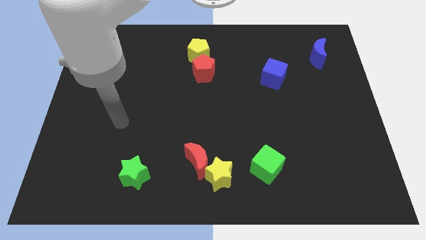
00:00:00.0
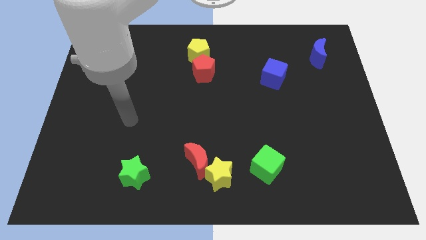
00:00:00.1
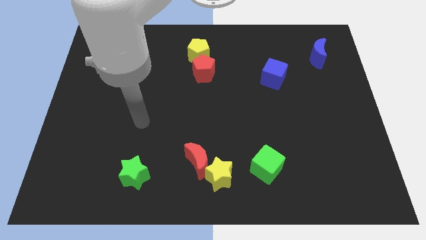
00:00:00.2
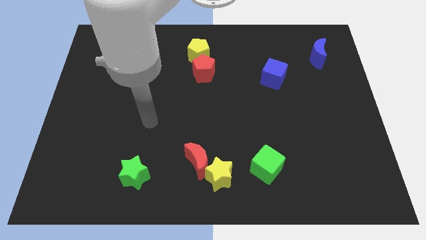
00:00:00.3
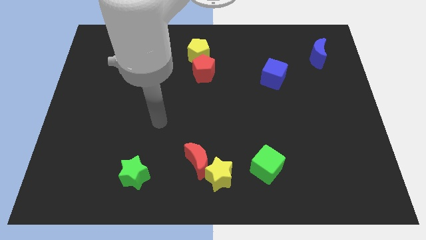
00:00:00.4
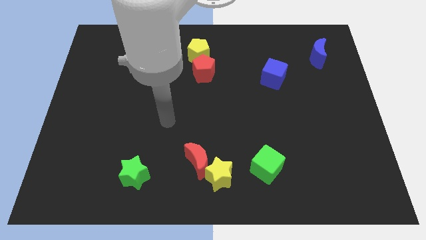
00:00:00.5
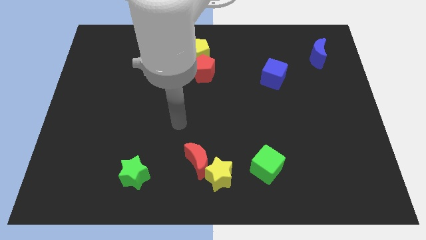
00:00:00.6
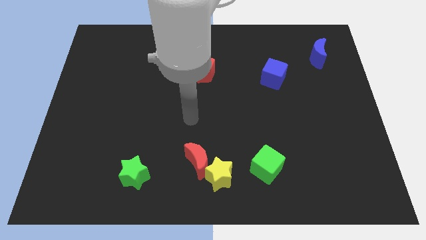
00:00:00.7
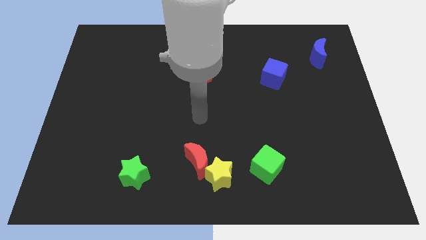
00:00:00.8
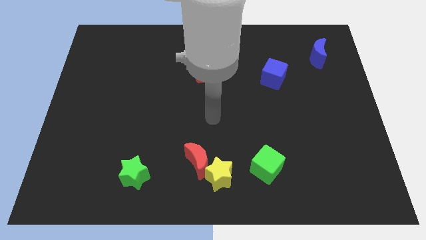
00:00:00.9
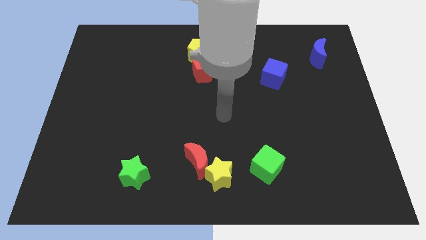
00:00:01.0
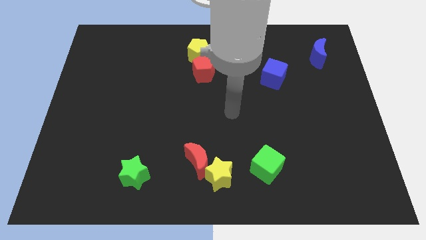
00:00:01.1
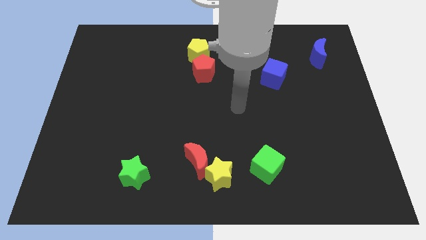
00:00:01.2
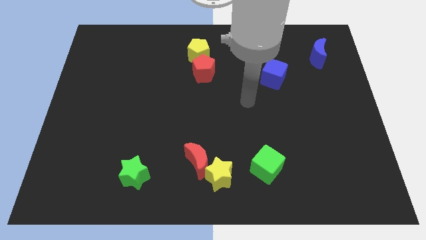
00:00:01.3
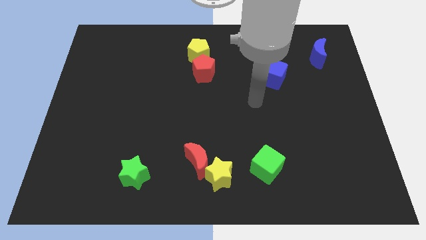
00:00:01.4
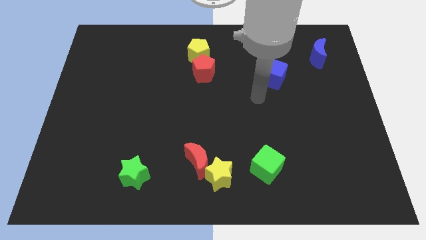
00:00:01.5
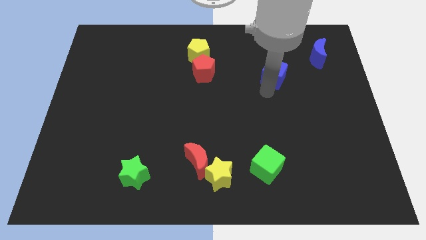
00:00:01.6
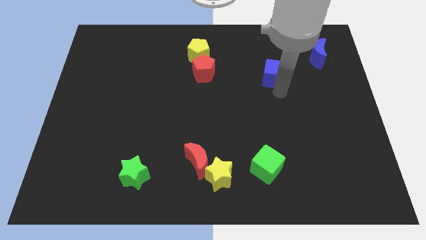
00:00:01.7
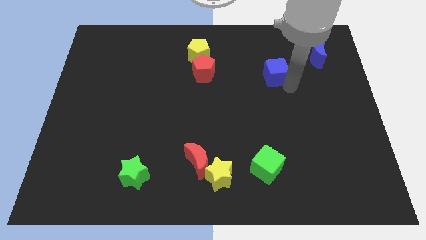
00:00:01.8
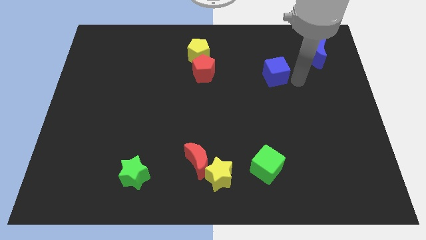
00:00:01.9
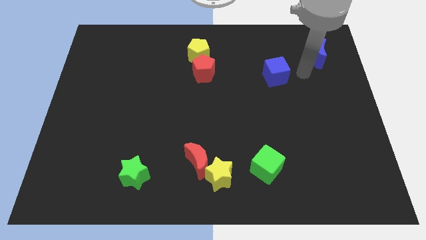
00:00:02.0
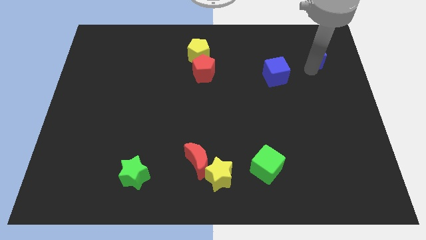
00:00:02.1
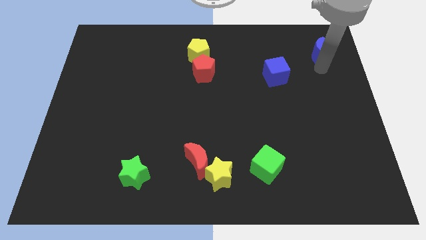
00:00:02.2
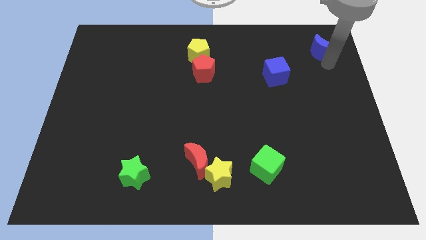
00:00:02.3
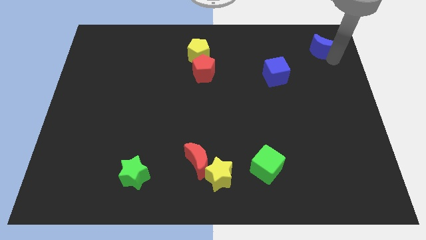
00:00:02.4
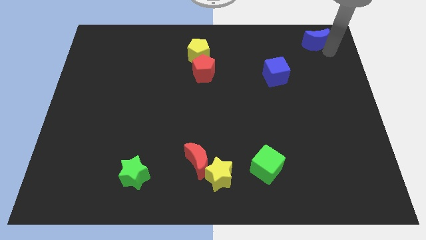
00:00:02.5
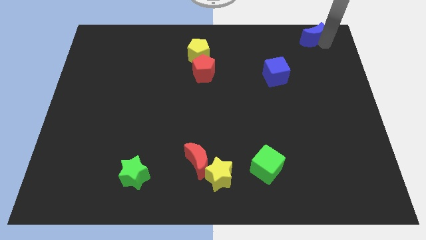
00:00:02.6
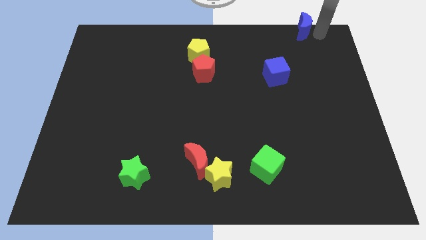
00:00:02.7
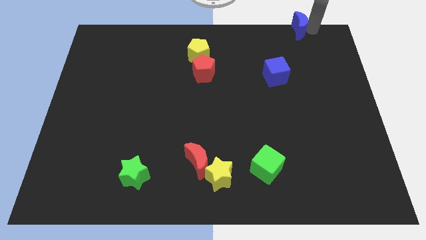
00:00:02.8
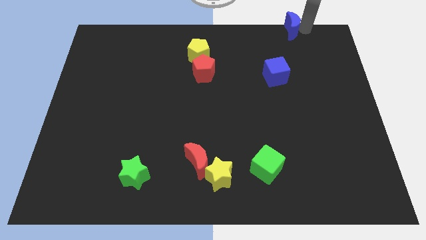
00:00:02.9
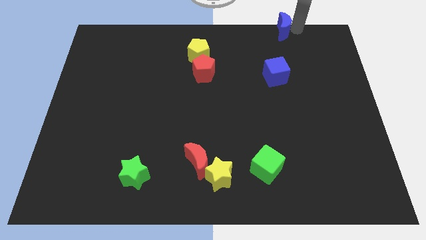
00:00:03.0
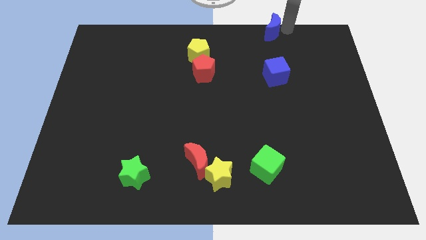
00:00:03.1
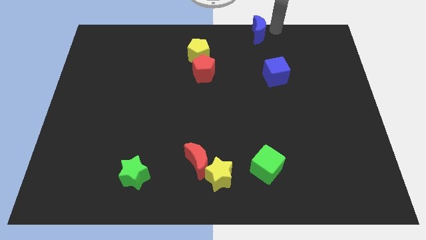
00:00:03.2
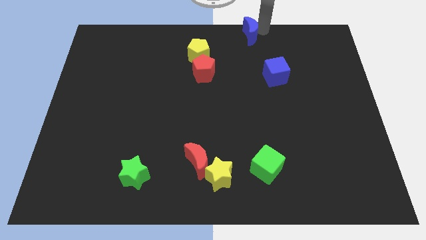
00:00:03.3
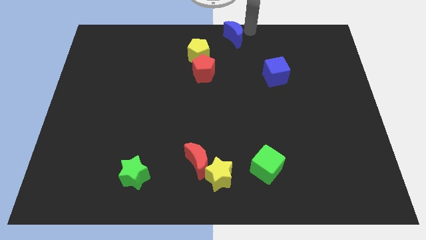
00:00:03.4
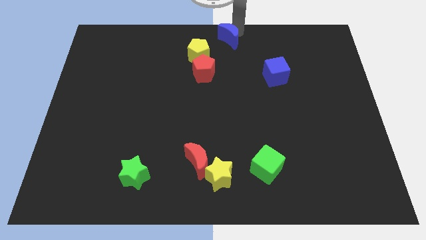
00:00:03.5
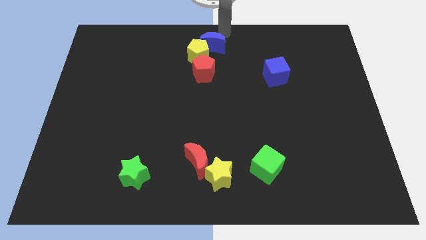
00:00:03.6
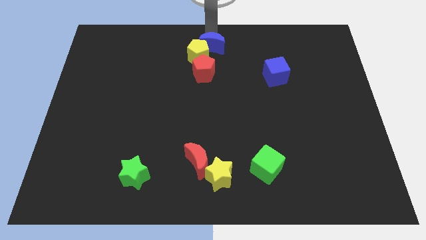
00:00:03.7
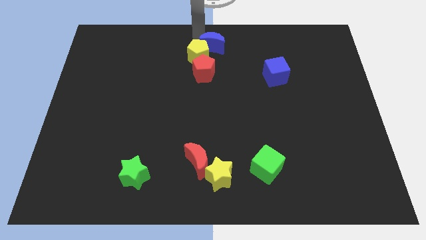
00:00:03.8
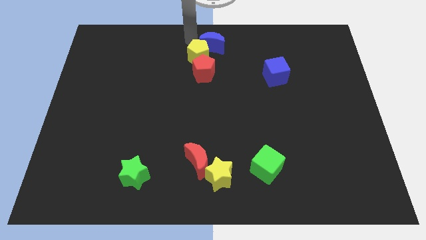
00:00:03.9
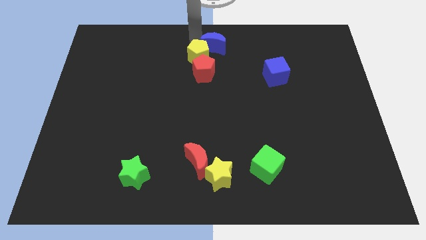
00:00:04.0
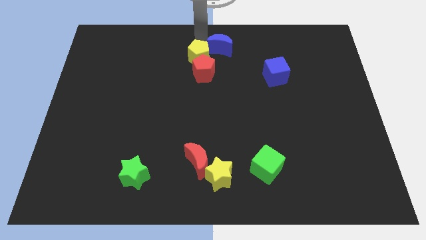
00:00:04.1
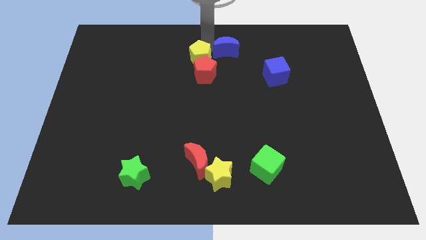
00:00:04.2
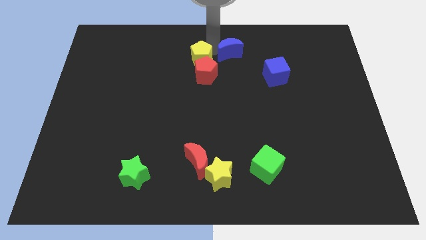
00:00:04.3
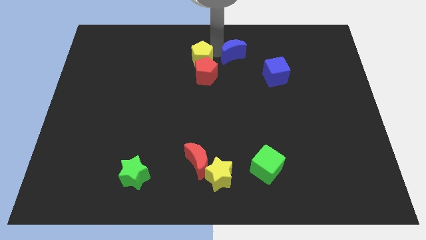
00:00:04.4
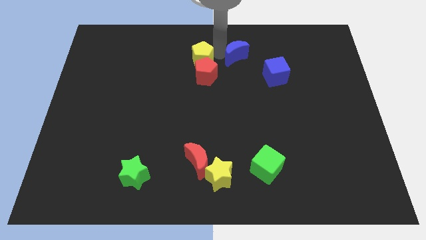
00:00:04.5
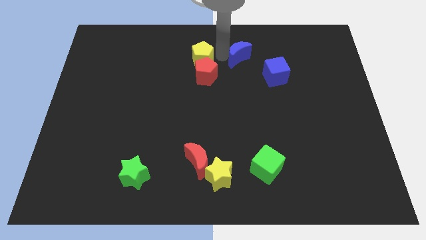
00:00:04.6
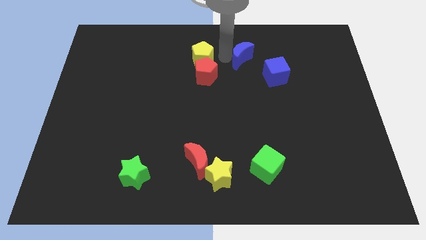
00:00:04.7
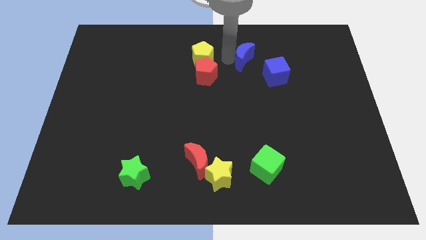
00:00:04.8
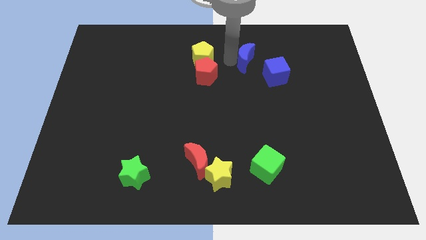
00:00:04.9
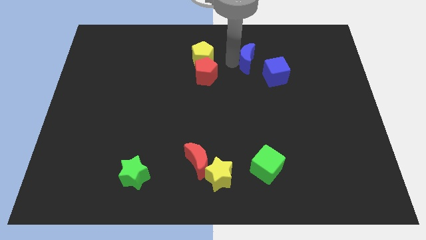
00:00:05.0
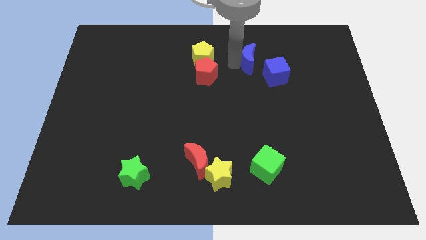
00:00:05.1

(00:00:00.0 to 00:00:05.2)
slide the blue moon down and then left a bit

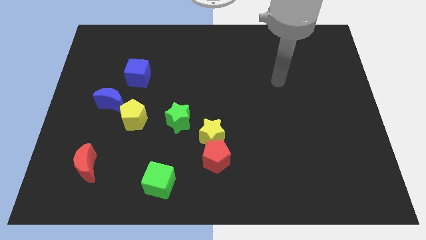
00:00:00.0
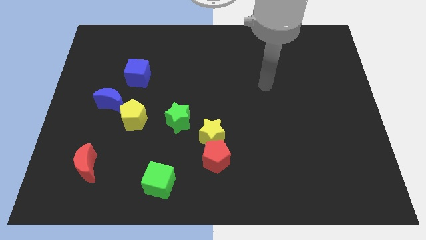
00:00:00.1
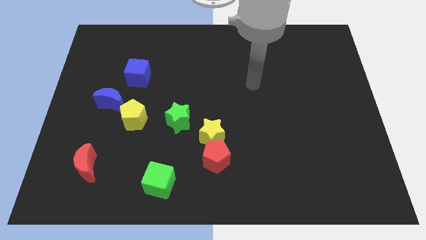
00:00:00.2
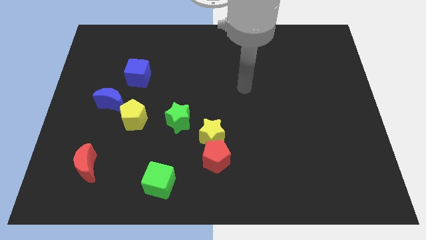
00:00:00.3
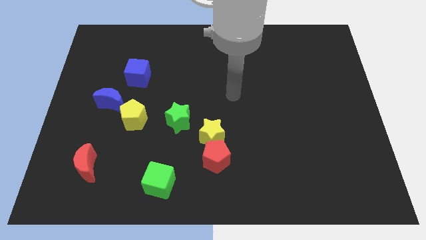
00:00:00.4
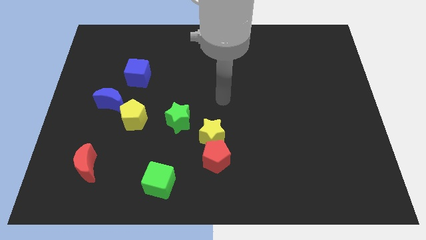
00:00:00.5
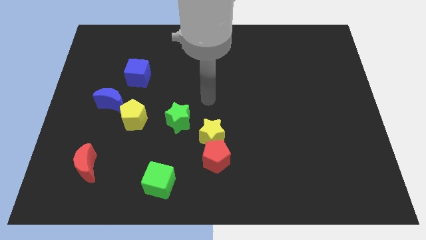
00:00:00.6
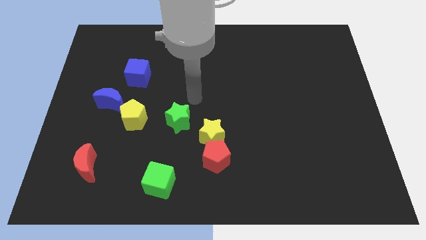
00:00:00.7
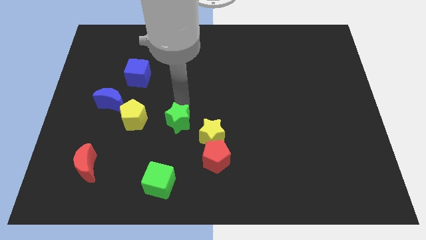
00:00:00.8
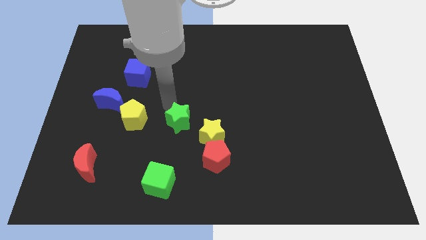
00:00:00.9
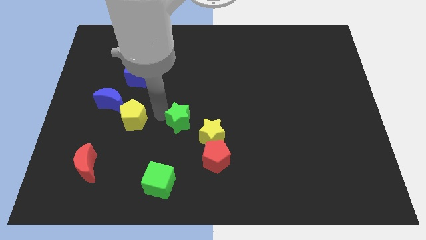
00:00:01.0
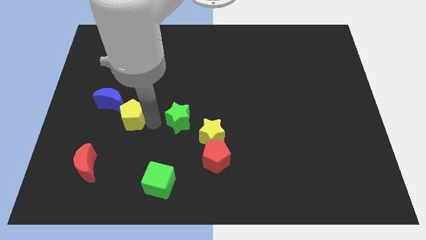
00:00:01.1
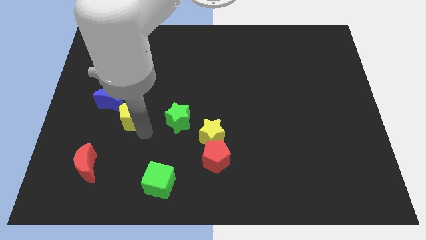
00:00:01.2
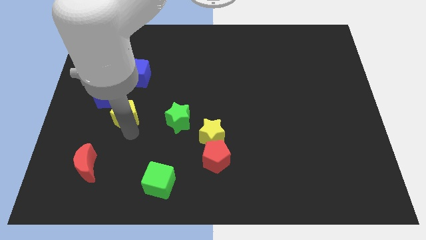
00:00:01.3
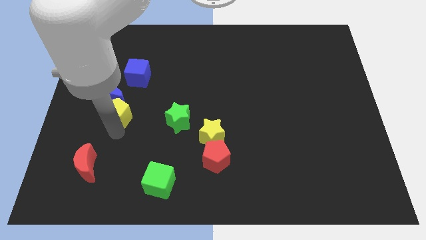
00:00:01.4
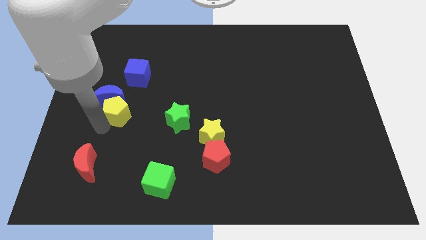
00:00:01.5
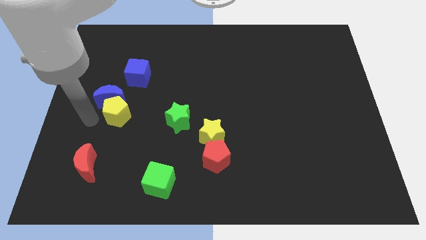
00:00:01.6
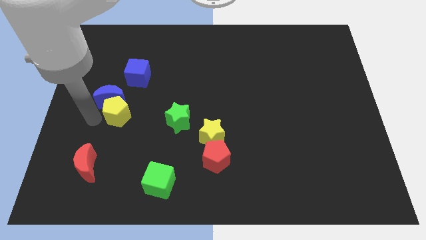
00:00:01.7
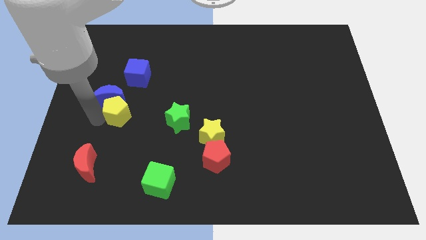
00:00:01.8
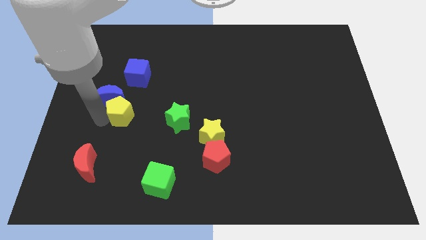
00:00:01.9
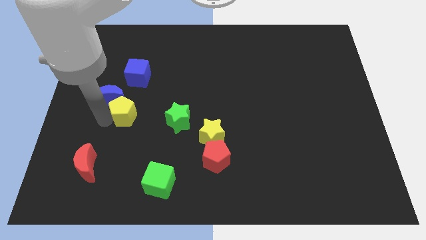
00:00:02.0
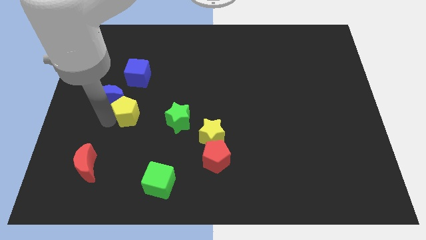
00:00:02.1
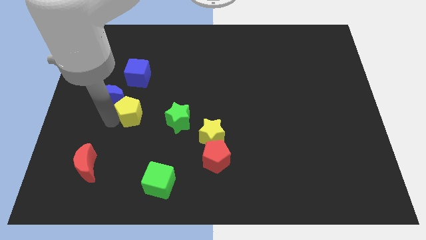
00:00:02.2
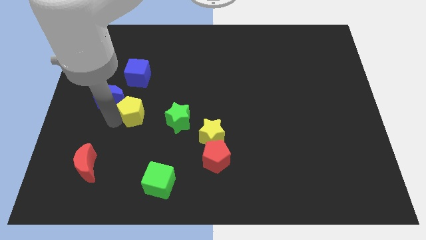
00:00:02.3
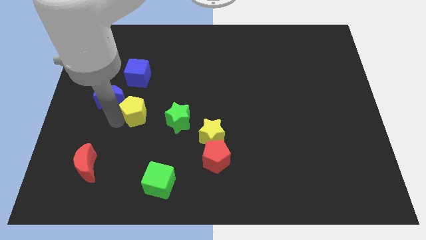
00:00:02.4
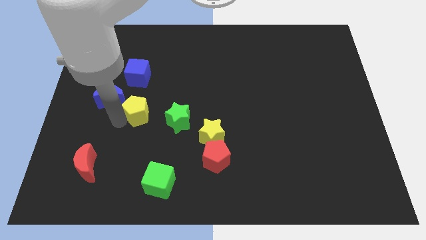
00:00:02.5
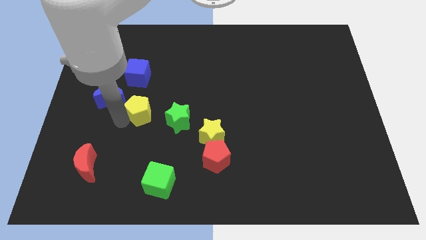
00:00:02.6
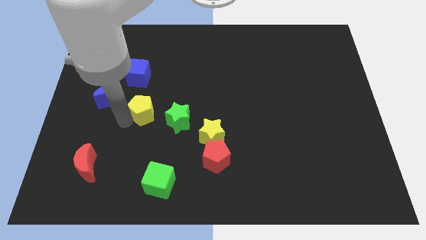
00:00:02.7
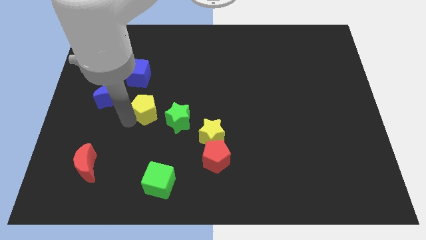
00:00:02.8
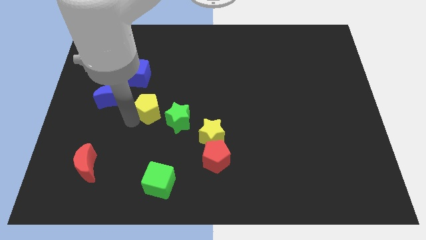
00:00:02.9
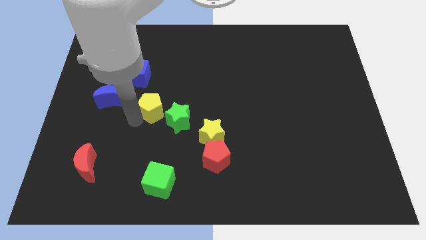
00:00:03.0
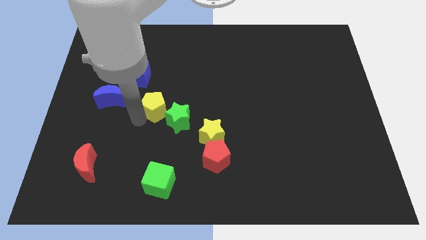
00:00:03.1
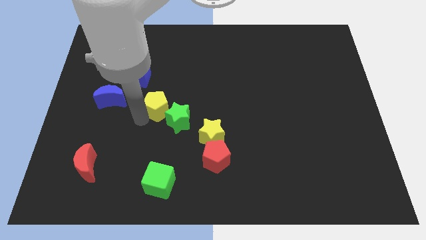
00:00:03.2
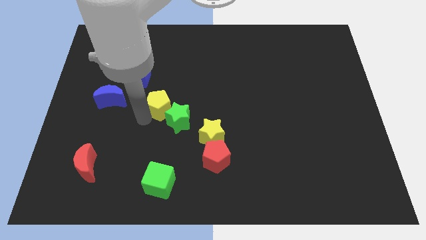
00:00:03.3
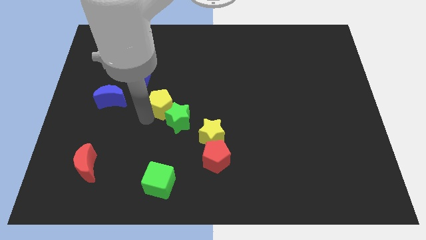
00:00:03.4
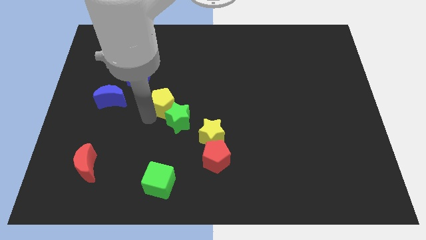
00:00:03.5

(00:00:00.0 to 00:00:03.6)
slightly slide the yellow pentagon up and to the right diagonally
